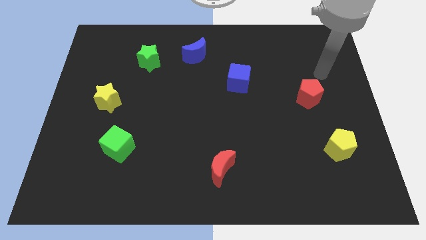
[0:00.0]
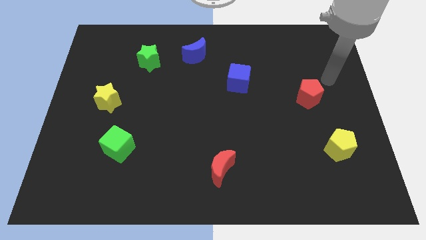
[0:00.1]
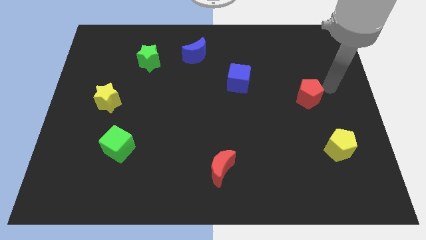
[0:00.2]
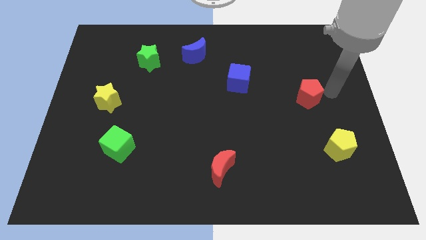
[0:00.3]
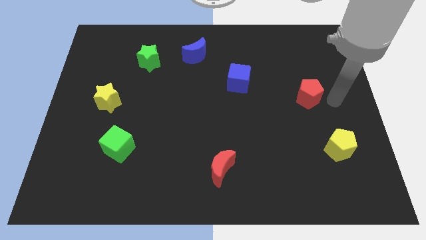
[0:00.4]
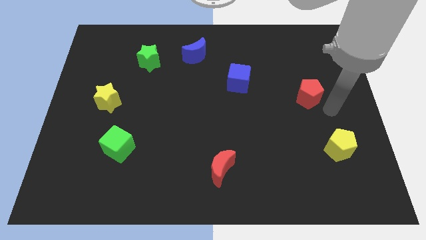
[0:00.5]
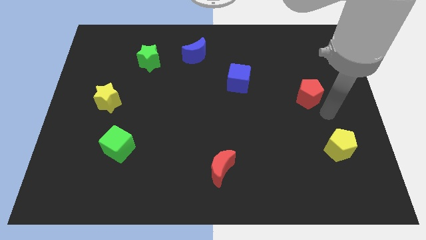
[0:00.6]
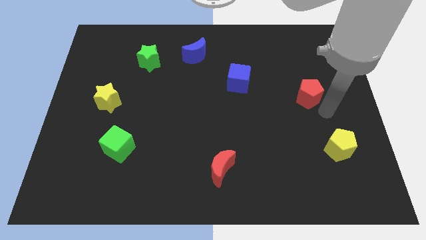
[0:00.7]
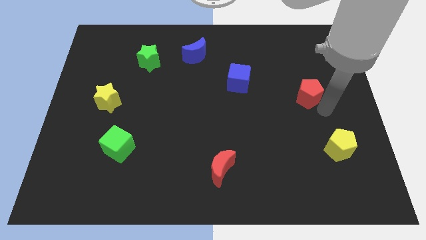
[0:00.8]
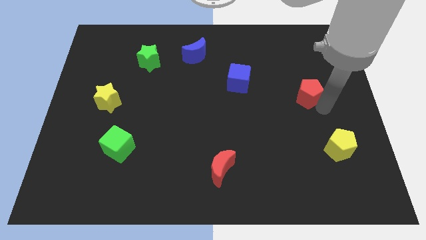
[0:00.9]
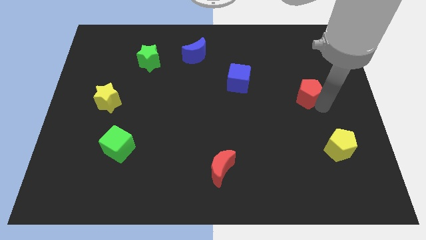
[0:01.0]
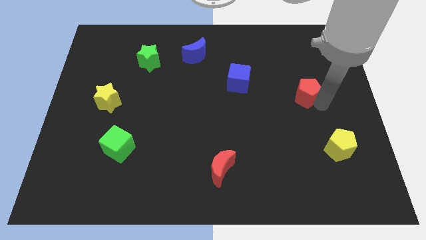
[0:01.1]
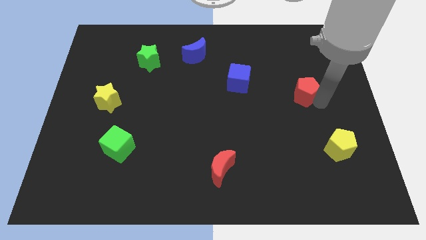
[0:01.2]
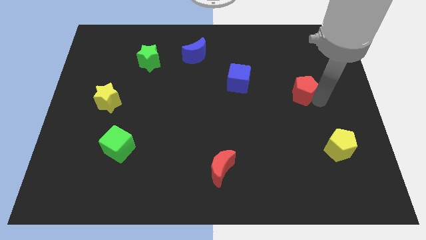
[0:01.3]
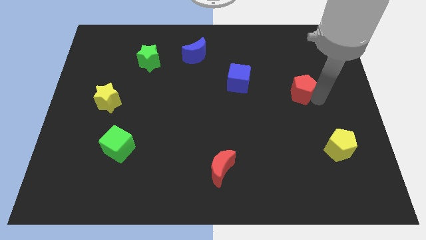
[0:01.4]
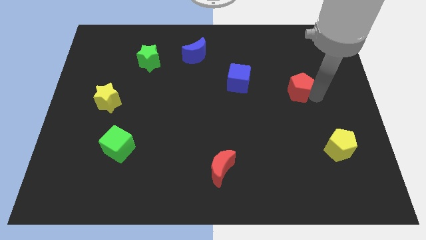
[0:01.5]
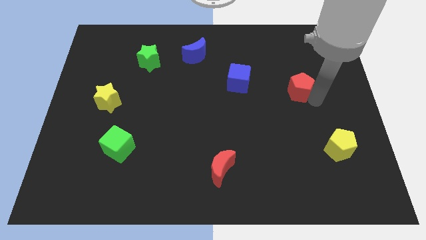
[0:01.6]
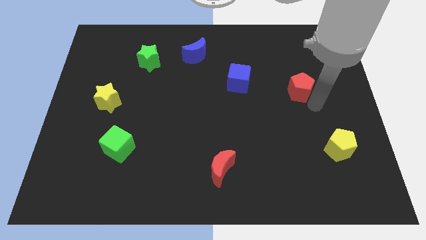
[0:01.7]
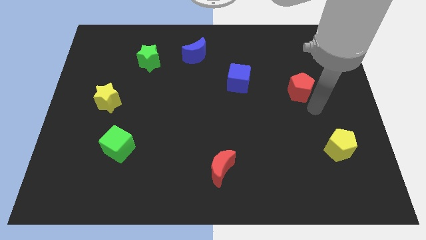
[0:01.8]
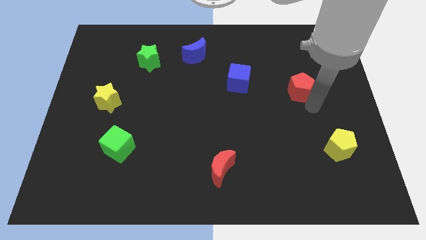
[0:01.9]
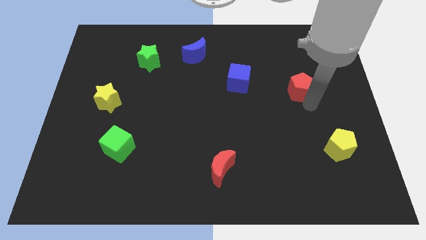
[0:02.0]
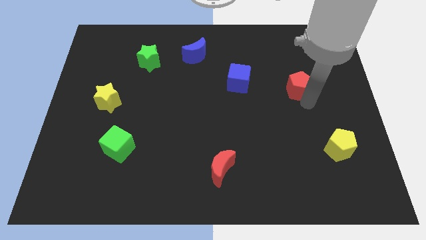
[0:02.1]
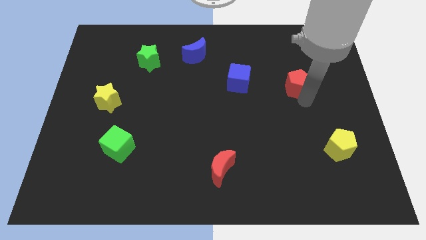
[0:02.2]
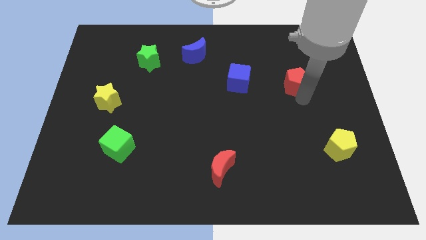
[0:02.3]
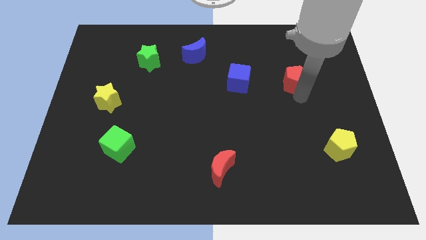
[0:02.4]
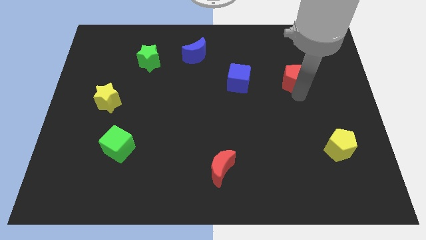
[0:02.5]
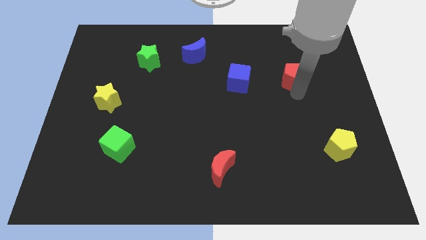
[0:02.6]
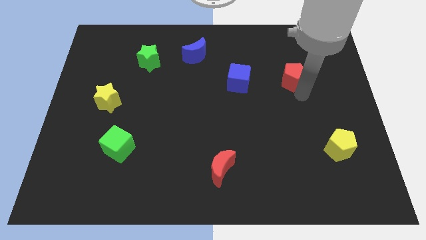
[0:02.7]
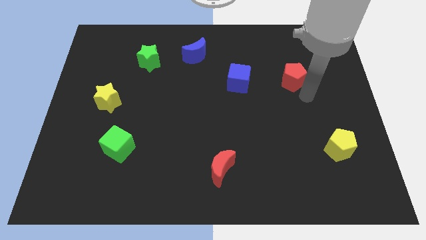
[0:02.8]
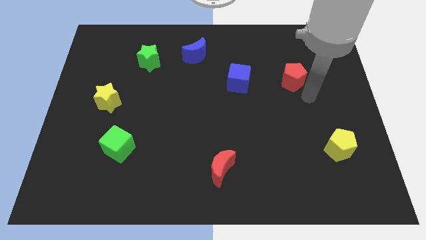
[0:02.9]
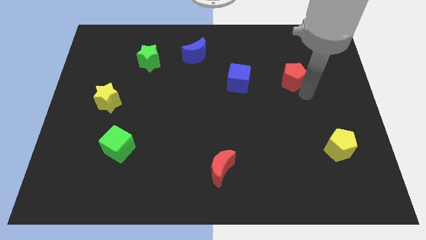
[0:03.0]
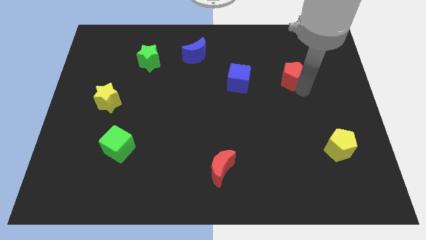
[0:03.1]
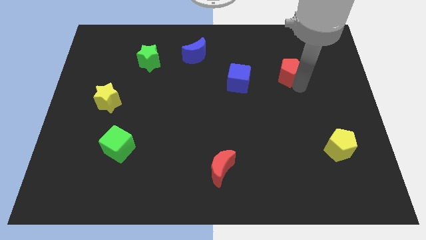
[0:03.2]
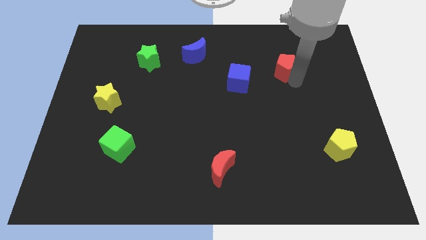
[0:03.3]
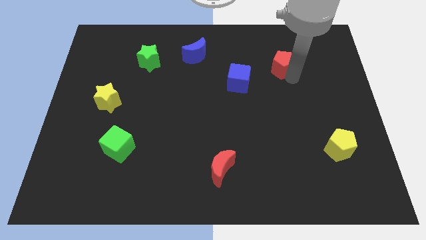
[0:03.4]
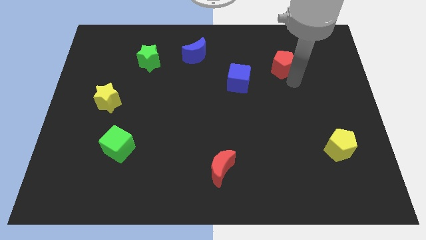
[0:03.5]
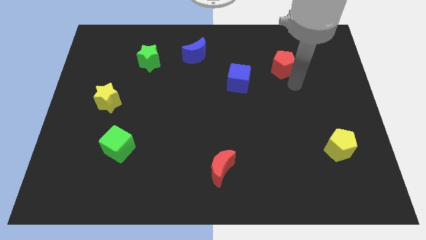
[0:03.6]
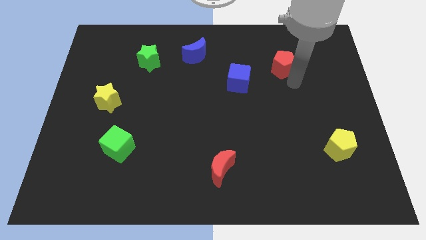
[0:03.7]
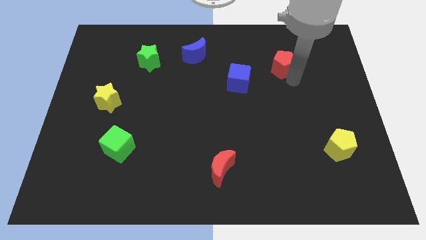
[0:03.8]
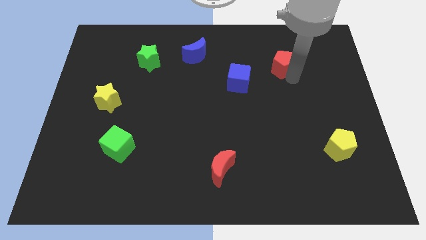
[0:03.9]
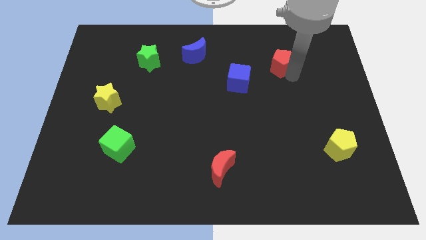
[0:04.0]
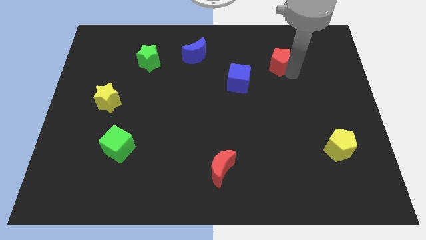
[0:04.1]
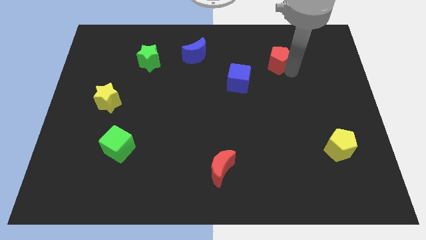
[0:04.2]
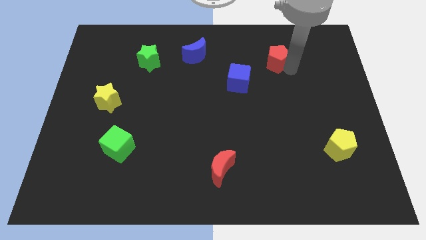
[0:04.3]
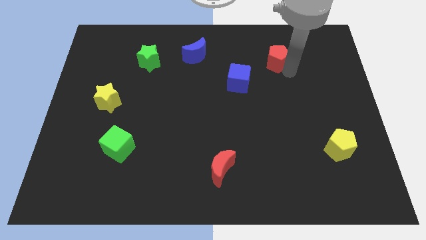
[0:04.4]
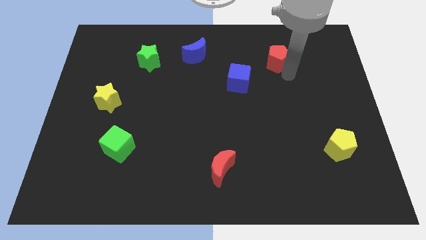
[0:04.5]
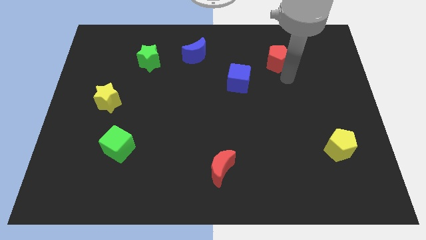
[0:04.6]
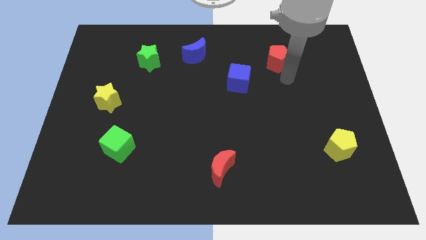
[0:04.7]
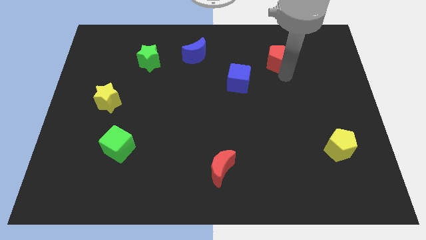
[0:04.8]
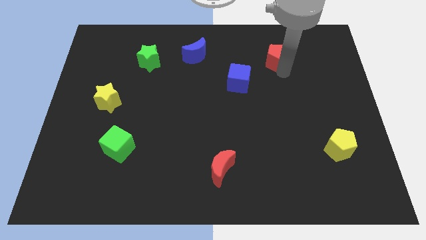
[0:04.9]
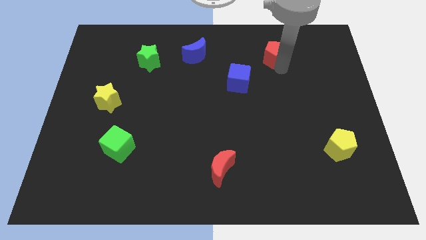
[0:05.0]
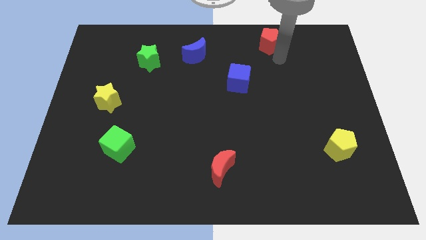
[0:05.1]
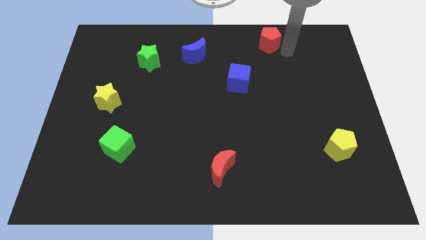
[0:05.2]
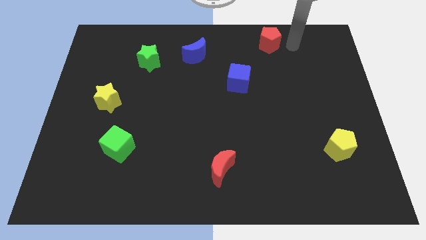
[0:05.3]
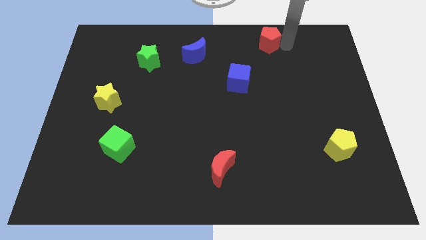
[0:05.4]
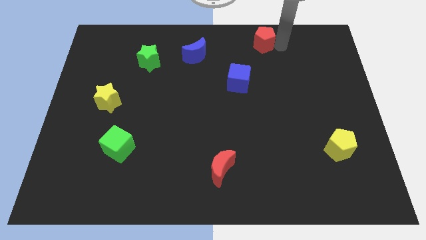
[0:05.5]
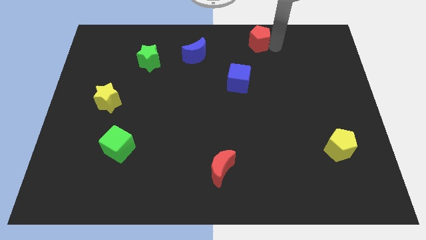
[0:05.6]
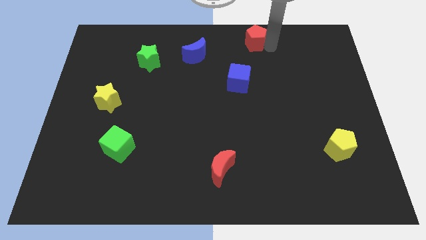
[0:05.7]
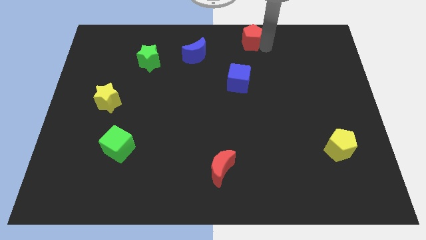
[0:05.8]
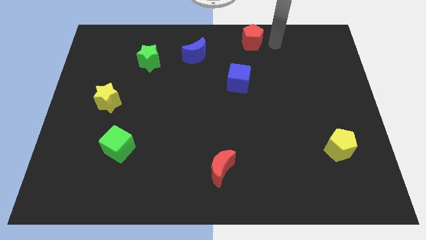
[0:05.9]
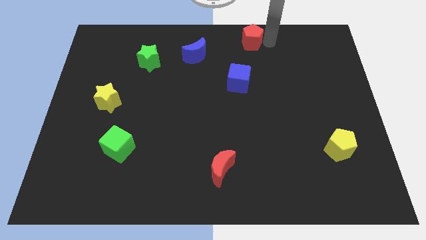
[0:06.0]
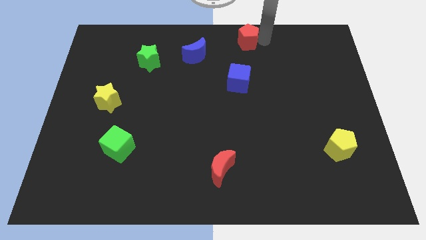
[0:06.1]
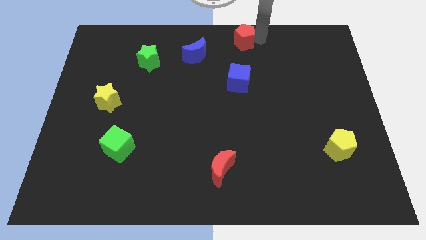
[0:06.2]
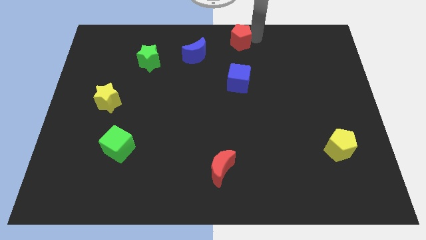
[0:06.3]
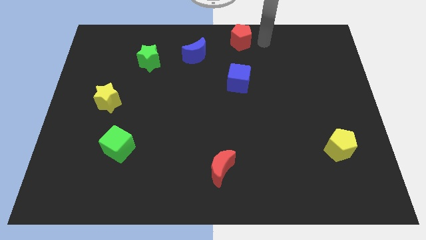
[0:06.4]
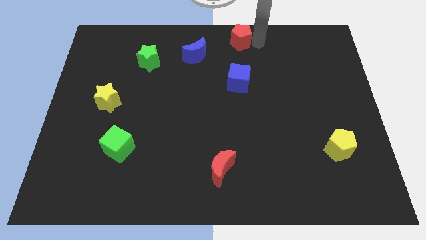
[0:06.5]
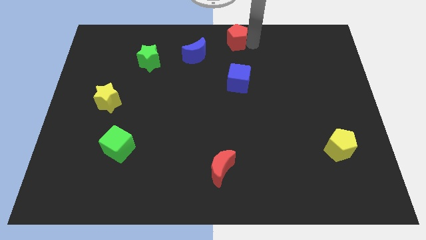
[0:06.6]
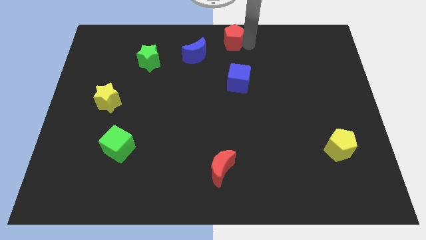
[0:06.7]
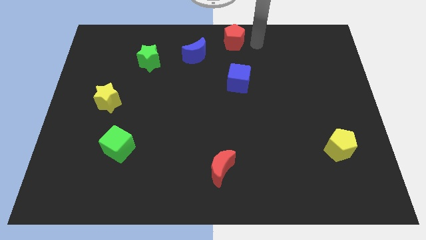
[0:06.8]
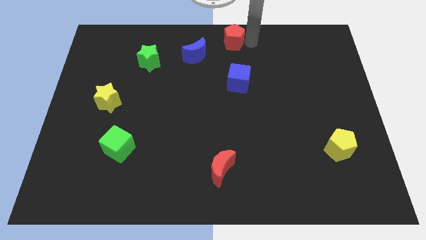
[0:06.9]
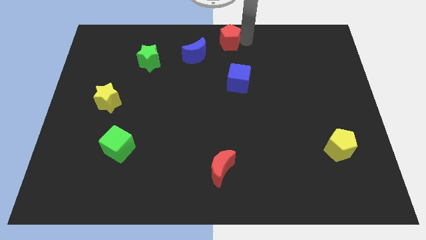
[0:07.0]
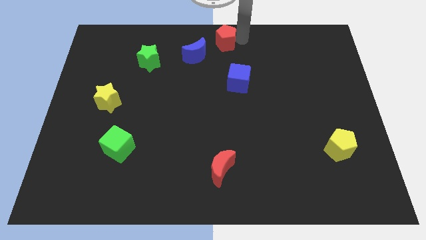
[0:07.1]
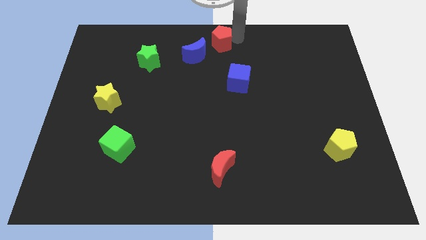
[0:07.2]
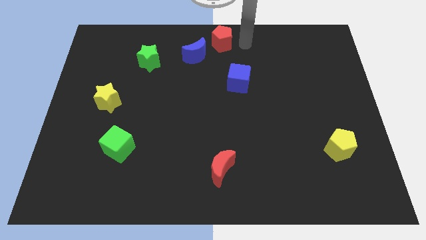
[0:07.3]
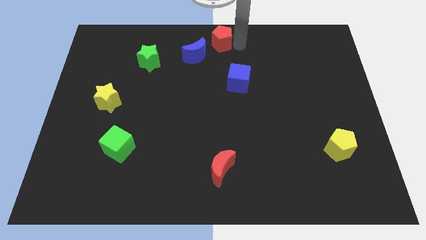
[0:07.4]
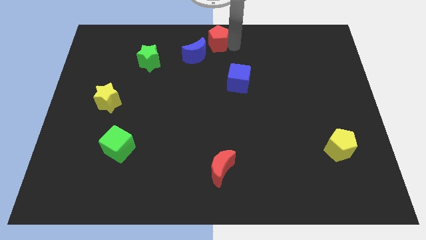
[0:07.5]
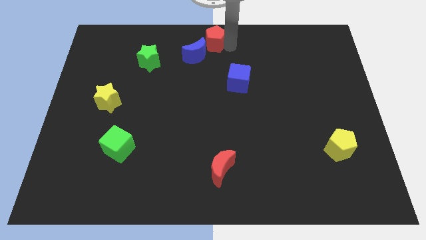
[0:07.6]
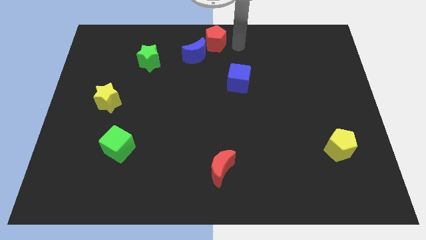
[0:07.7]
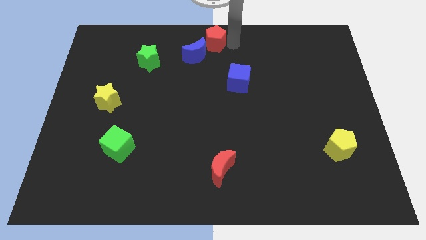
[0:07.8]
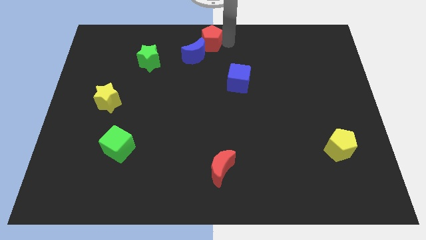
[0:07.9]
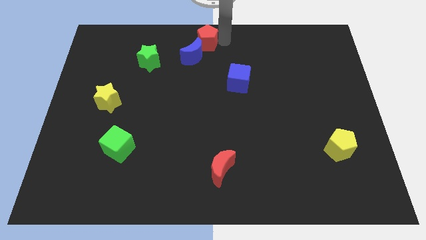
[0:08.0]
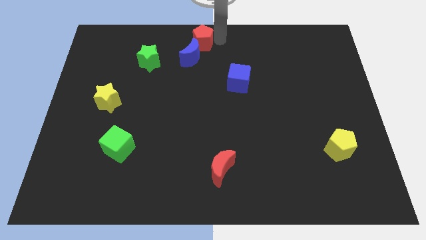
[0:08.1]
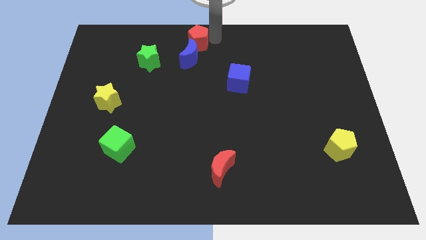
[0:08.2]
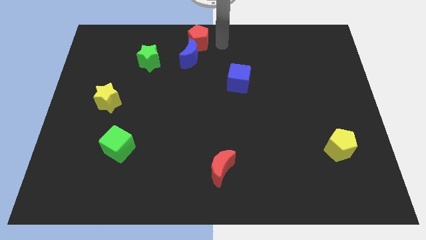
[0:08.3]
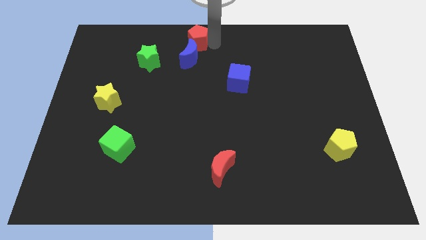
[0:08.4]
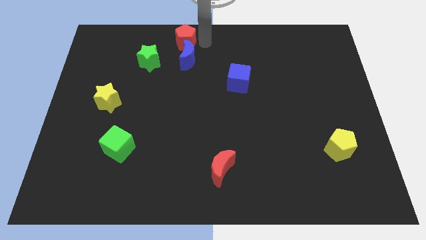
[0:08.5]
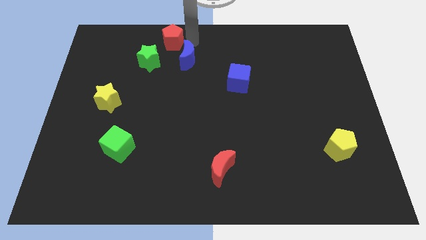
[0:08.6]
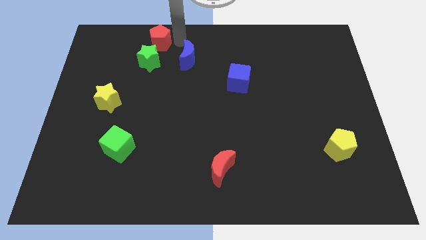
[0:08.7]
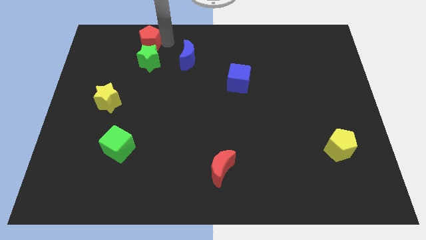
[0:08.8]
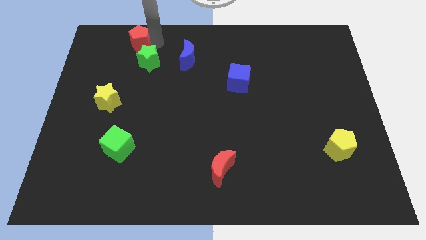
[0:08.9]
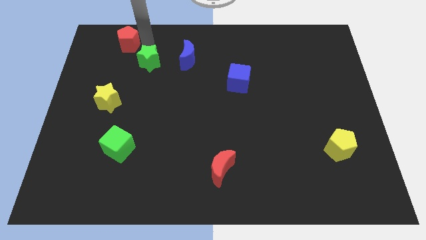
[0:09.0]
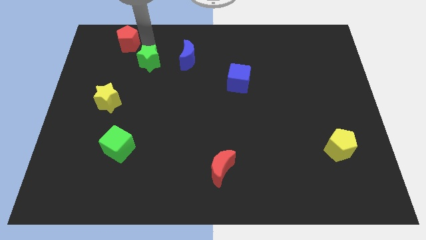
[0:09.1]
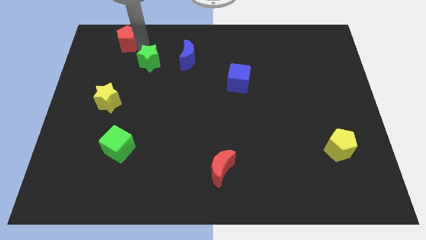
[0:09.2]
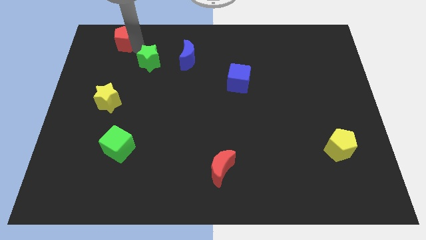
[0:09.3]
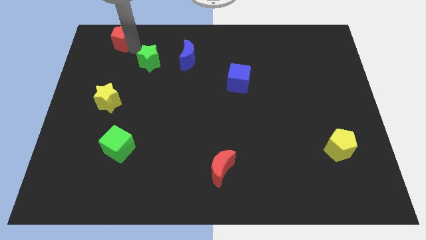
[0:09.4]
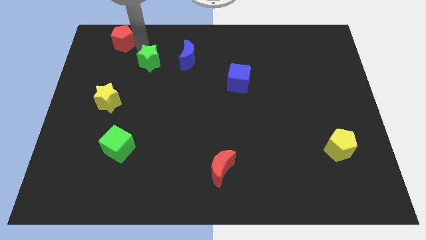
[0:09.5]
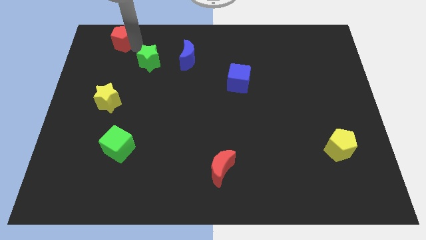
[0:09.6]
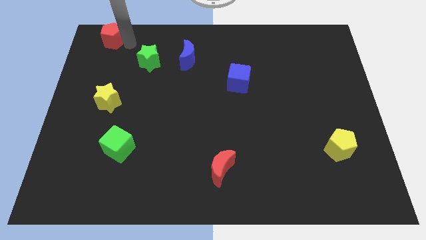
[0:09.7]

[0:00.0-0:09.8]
slide the red pentagon to the top left
